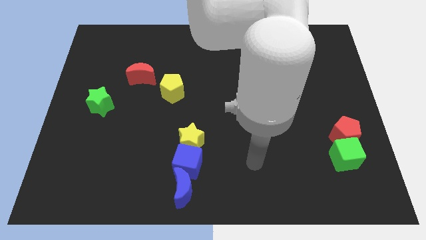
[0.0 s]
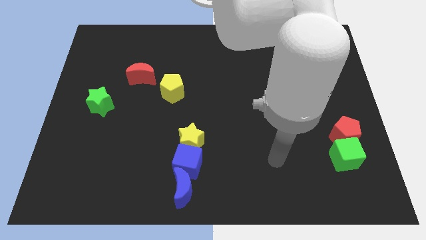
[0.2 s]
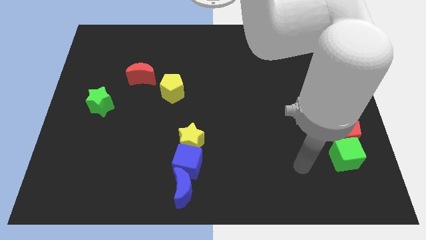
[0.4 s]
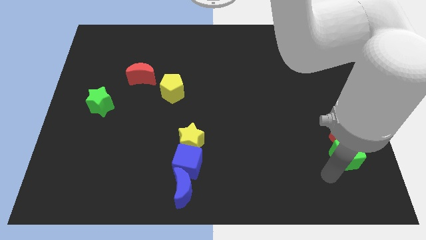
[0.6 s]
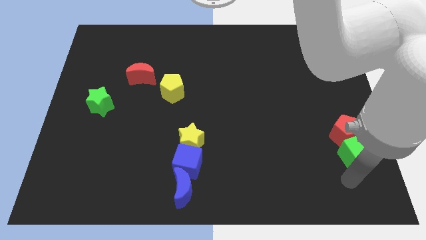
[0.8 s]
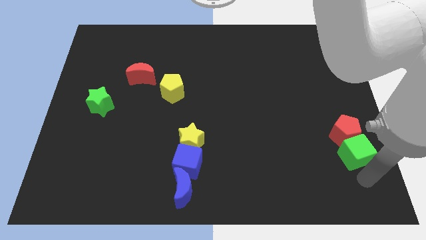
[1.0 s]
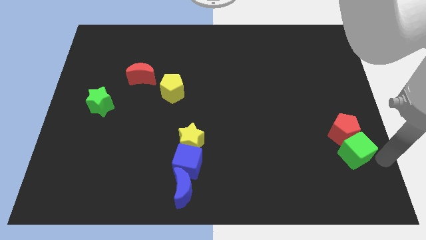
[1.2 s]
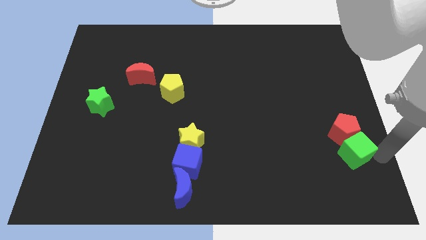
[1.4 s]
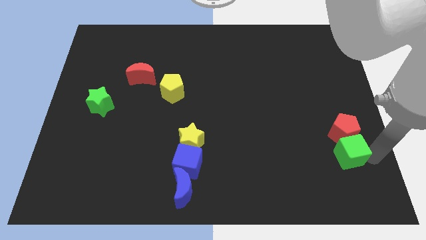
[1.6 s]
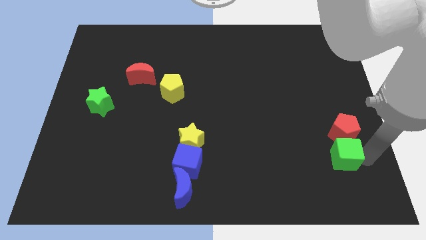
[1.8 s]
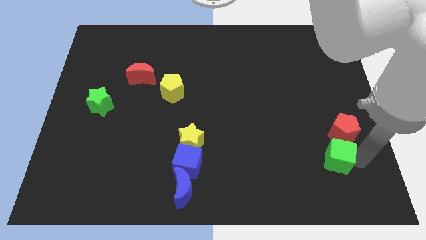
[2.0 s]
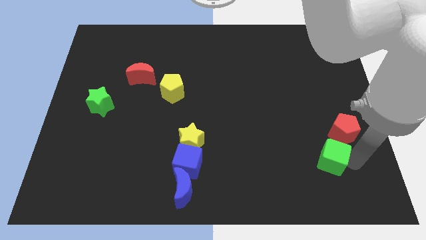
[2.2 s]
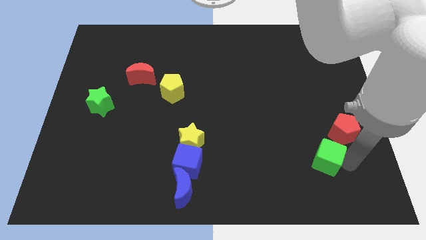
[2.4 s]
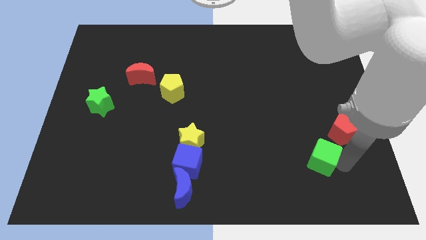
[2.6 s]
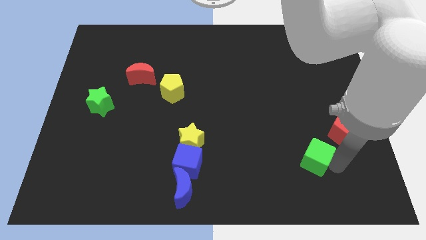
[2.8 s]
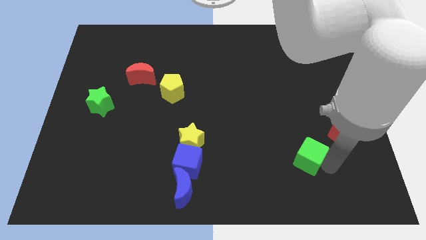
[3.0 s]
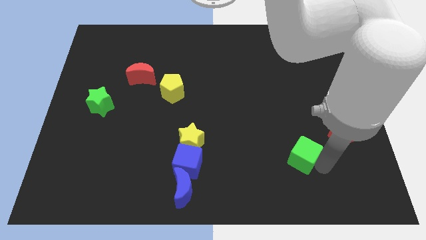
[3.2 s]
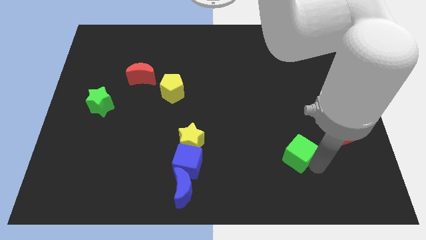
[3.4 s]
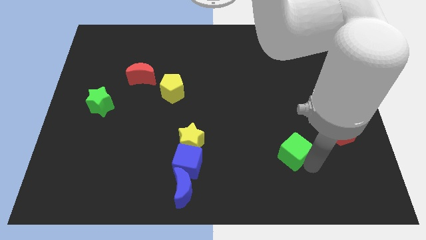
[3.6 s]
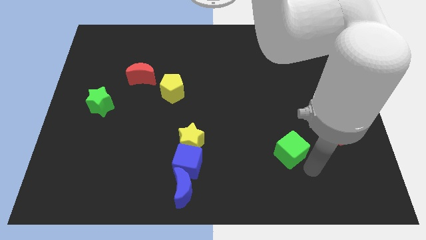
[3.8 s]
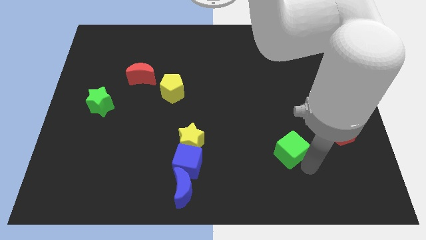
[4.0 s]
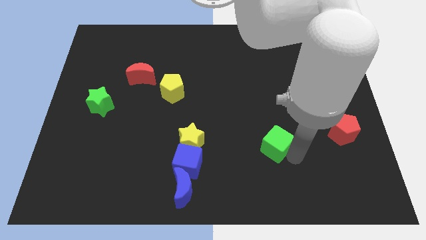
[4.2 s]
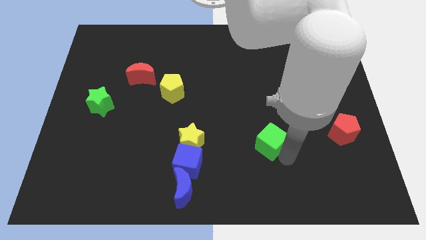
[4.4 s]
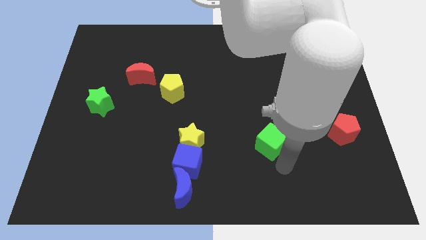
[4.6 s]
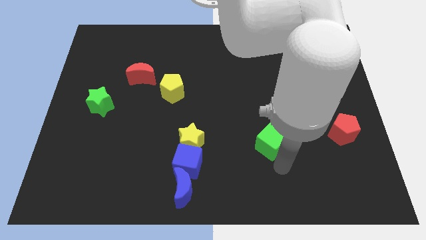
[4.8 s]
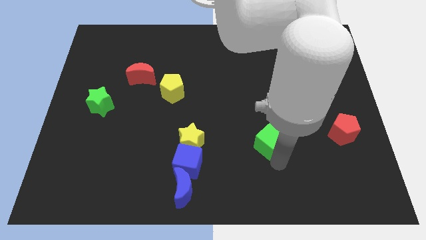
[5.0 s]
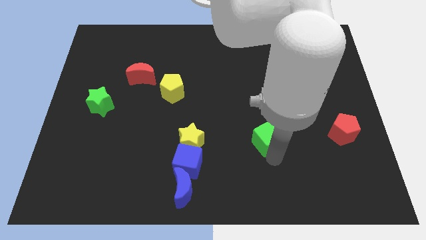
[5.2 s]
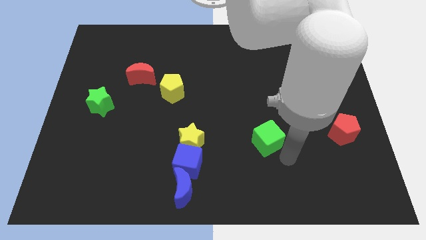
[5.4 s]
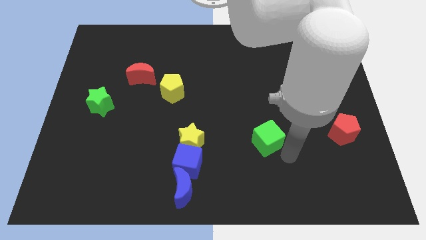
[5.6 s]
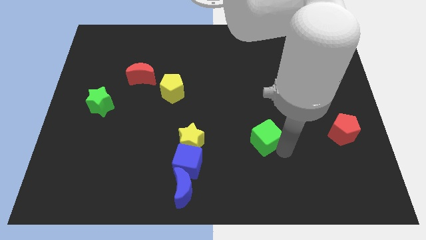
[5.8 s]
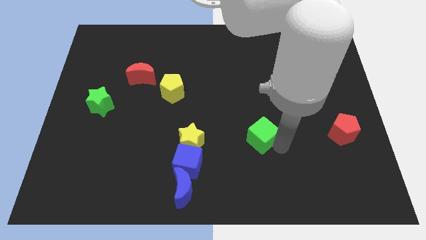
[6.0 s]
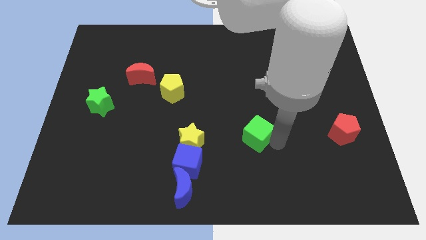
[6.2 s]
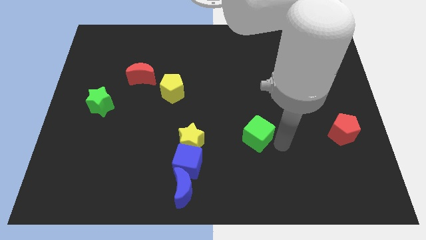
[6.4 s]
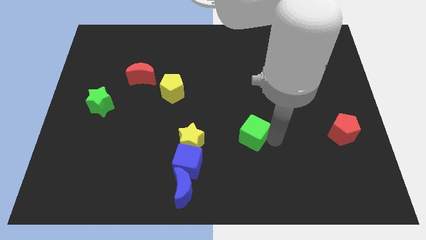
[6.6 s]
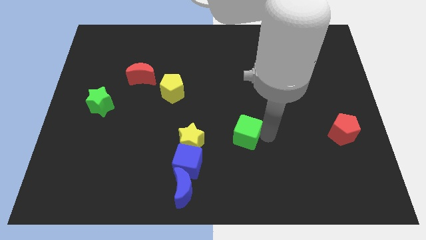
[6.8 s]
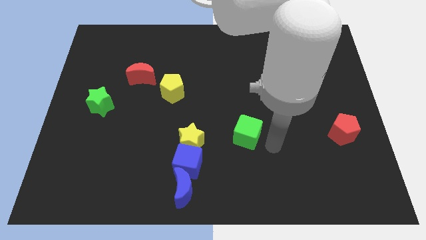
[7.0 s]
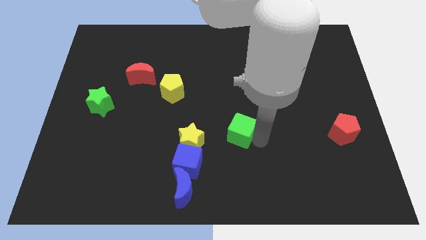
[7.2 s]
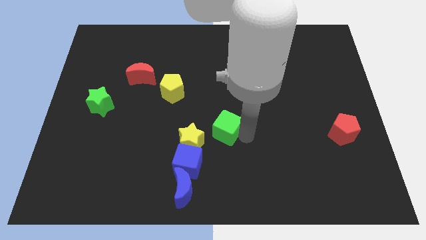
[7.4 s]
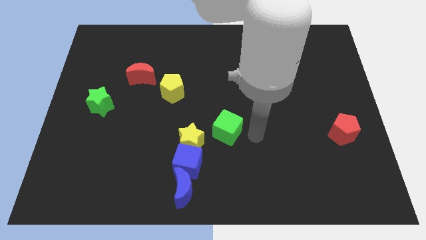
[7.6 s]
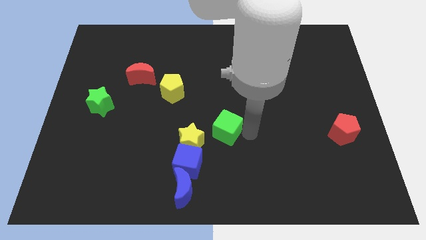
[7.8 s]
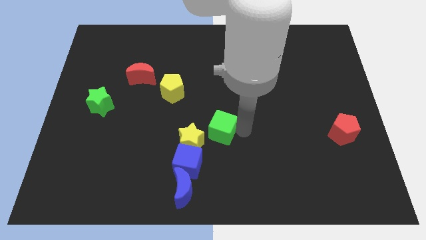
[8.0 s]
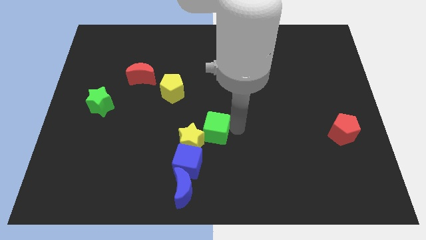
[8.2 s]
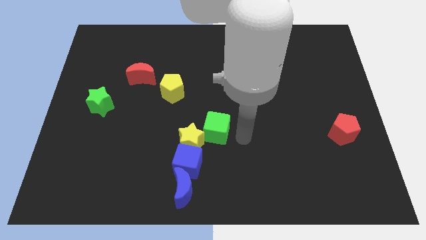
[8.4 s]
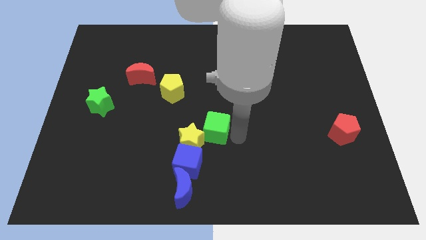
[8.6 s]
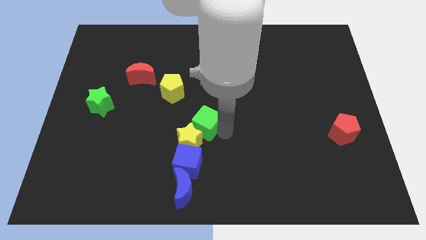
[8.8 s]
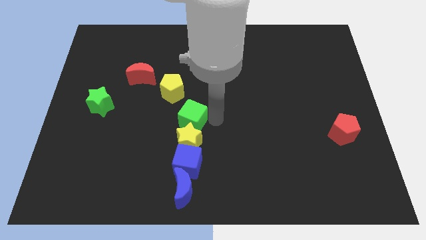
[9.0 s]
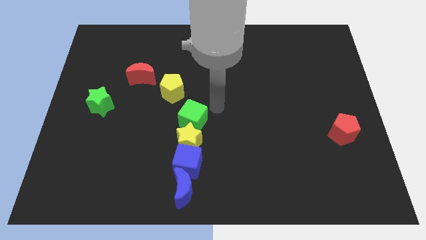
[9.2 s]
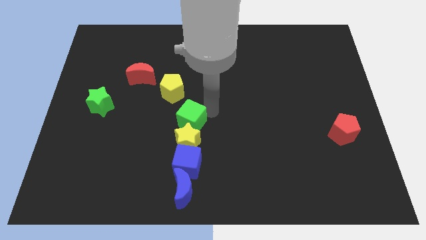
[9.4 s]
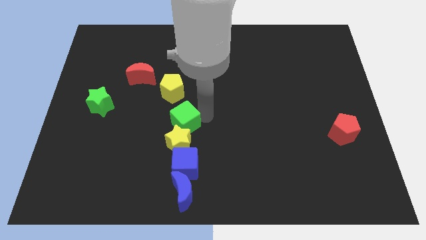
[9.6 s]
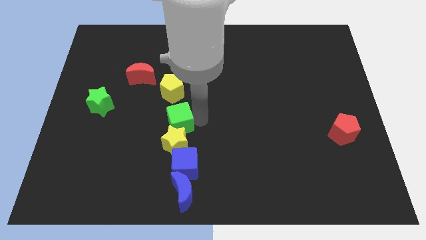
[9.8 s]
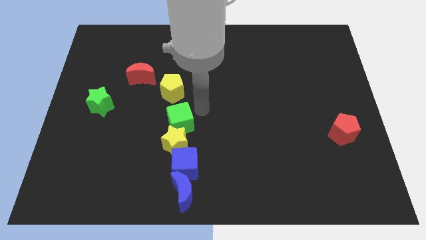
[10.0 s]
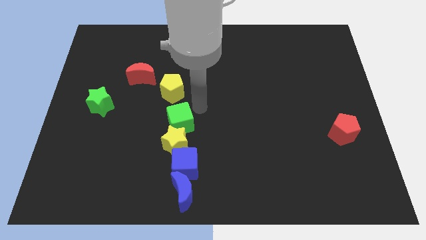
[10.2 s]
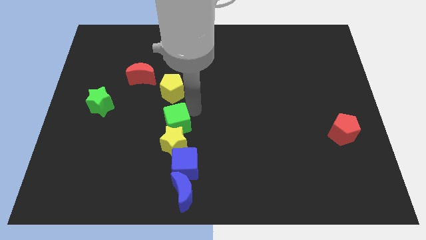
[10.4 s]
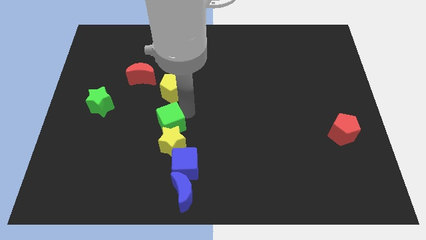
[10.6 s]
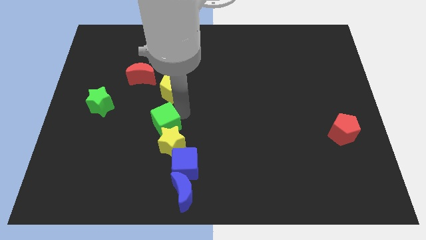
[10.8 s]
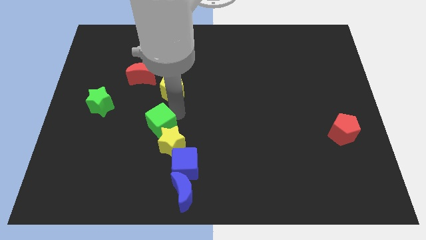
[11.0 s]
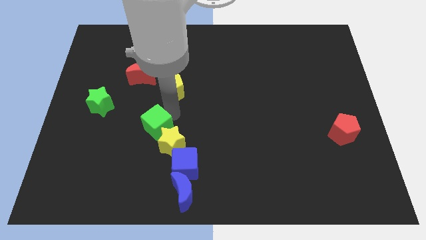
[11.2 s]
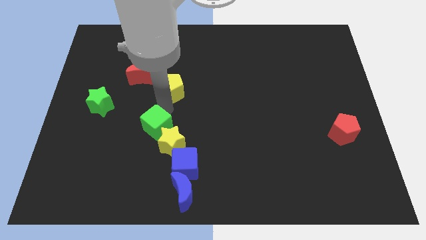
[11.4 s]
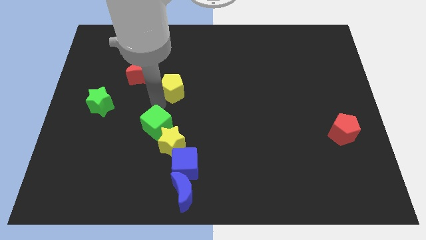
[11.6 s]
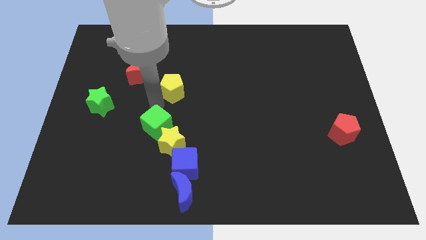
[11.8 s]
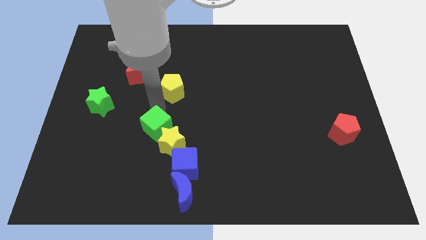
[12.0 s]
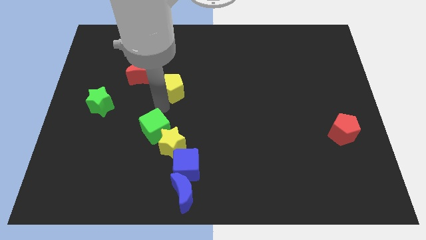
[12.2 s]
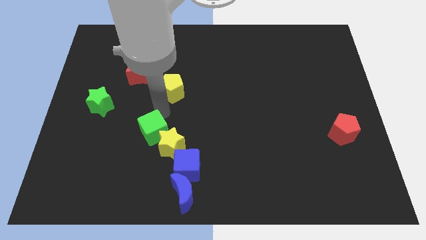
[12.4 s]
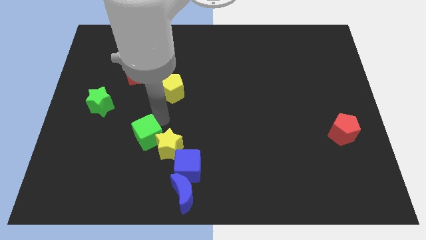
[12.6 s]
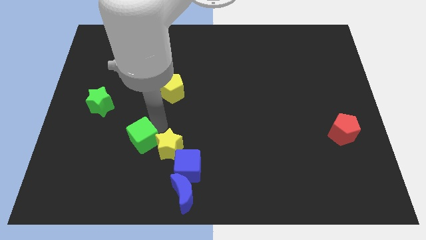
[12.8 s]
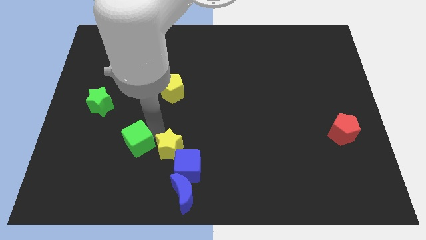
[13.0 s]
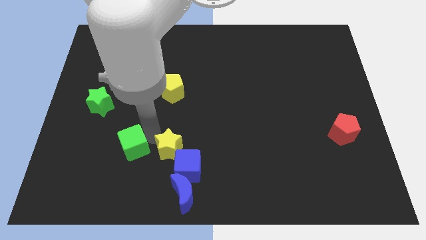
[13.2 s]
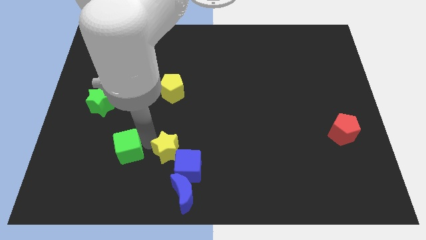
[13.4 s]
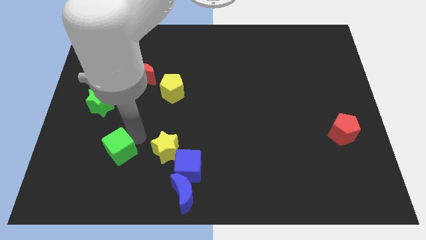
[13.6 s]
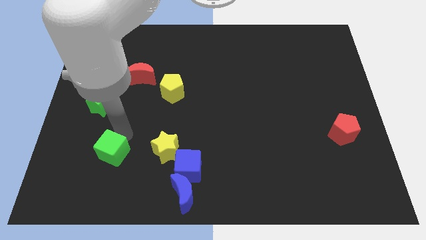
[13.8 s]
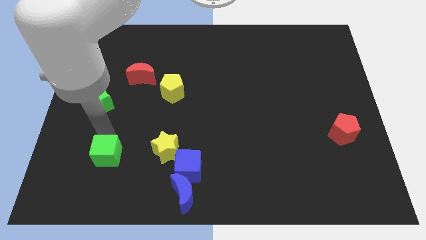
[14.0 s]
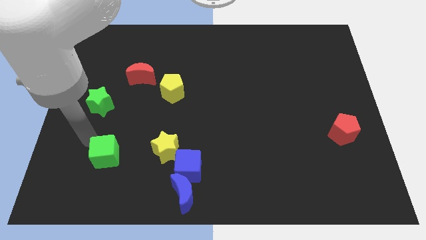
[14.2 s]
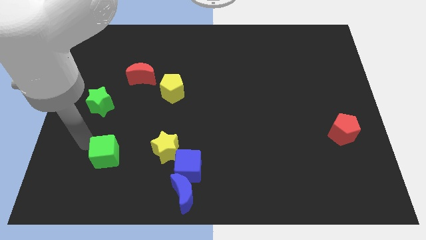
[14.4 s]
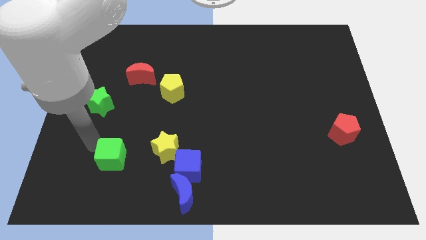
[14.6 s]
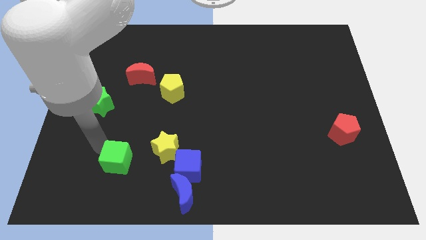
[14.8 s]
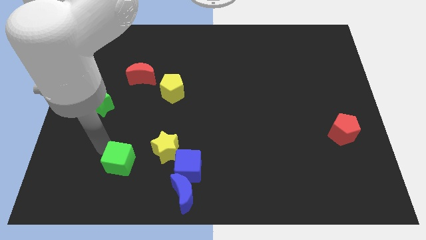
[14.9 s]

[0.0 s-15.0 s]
put the green cube diagonally down and to the left of the yellow star
